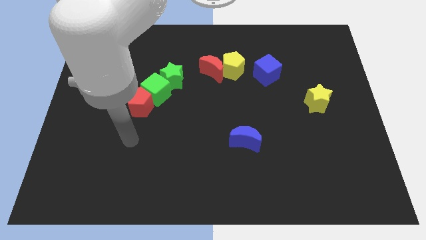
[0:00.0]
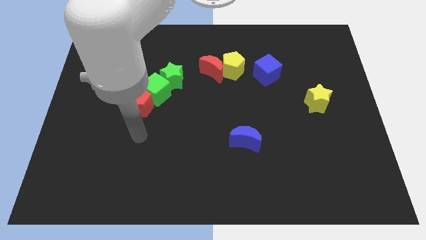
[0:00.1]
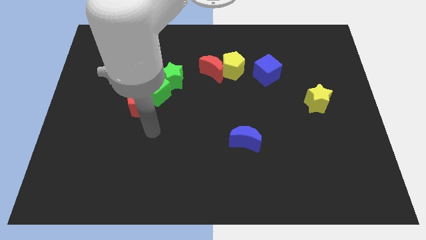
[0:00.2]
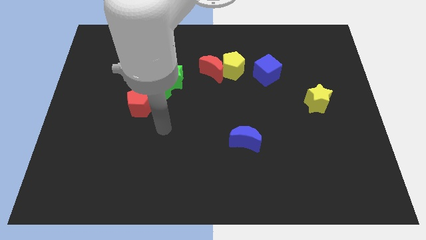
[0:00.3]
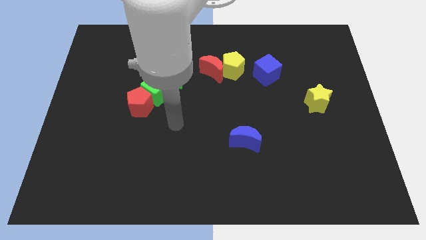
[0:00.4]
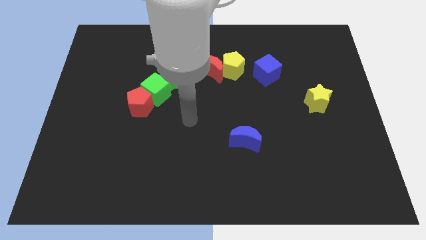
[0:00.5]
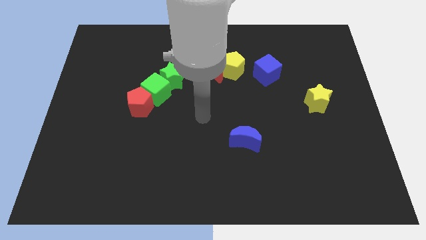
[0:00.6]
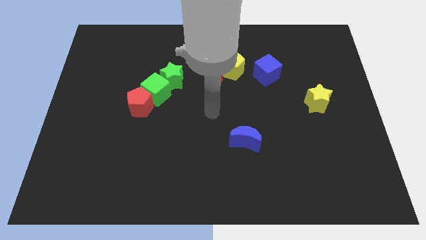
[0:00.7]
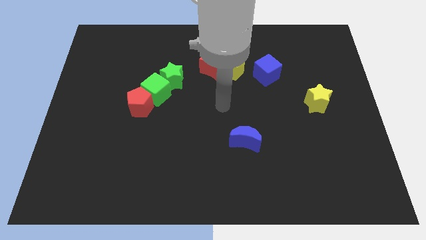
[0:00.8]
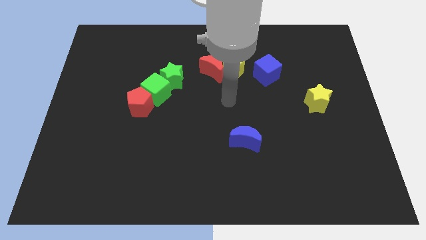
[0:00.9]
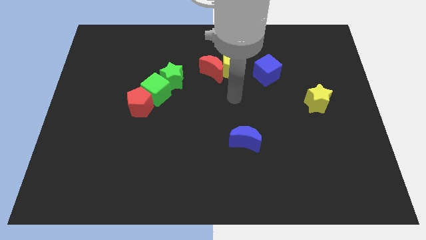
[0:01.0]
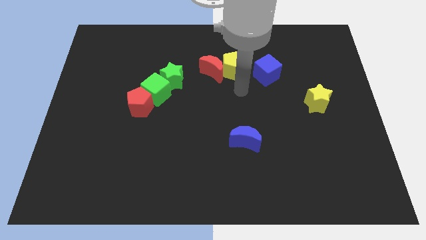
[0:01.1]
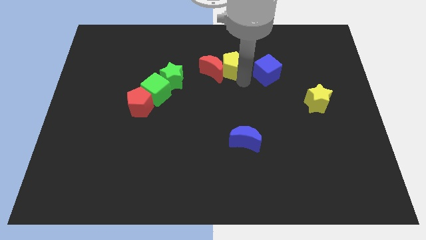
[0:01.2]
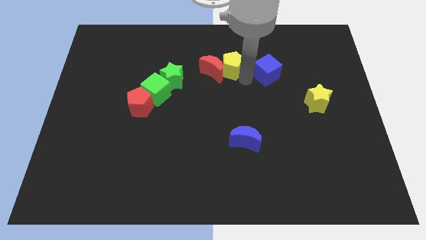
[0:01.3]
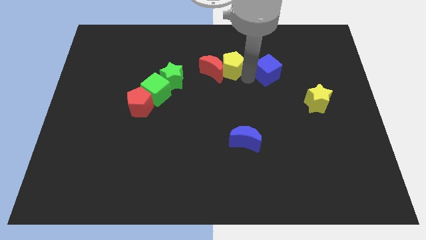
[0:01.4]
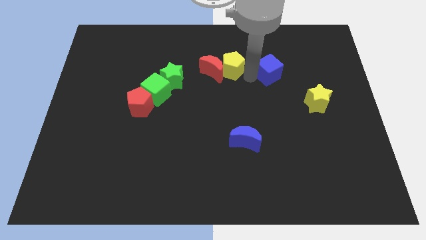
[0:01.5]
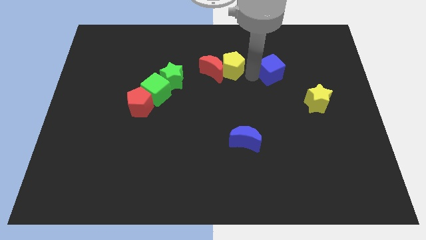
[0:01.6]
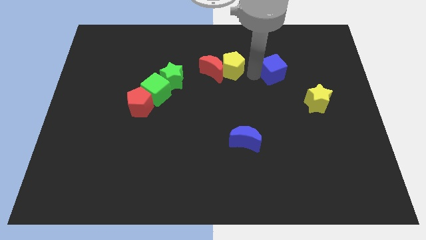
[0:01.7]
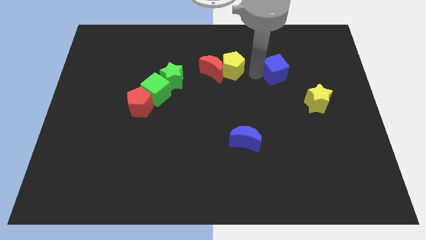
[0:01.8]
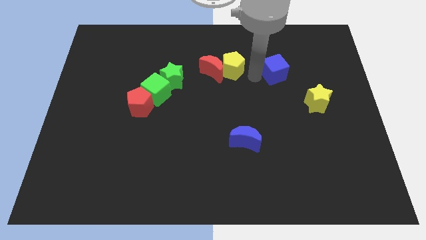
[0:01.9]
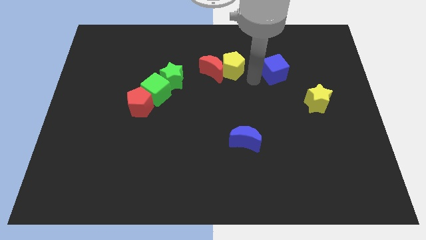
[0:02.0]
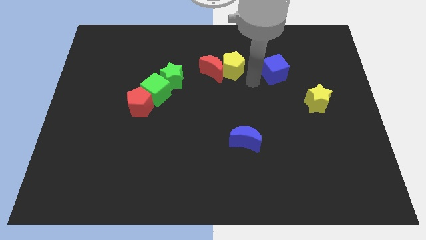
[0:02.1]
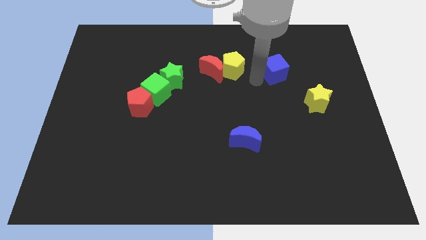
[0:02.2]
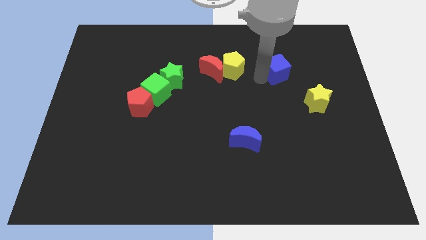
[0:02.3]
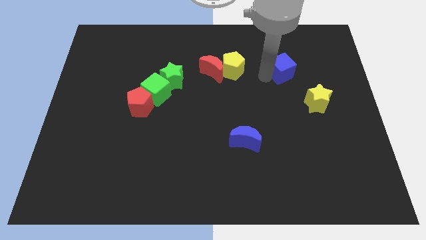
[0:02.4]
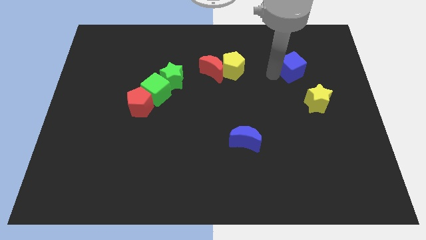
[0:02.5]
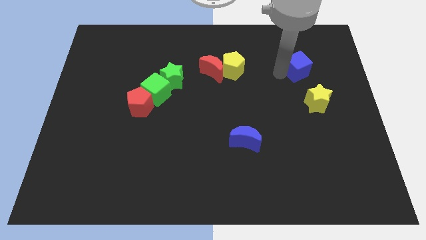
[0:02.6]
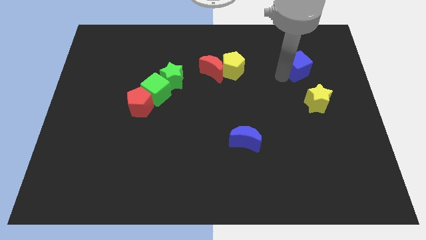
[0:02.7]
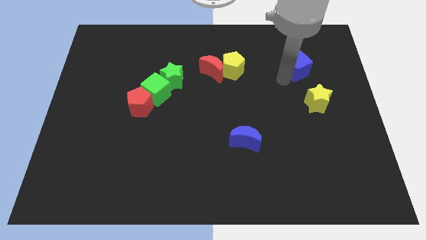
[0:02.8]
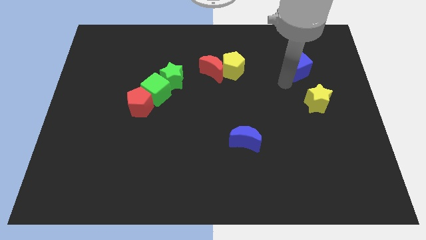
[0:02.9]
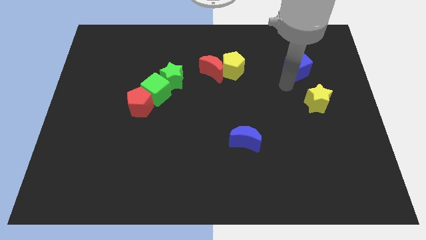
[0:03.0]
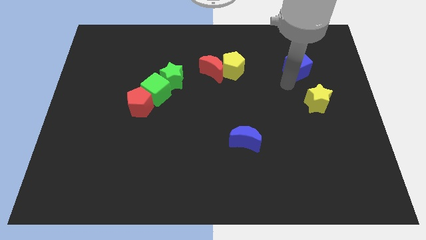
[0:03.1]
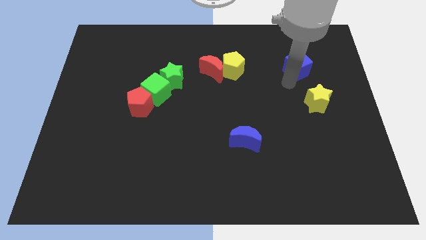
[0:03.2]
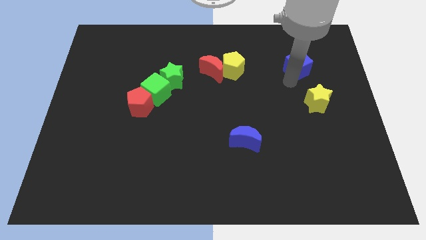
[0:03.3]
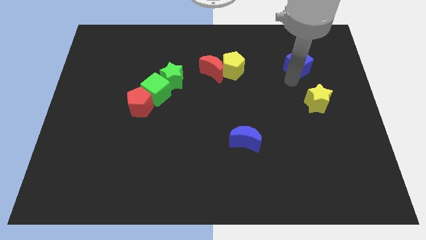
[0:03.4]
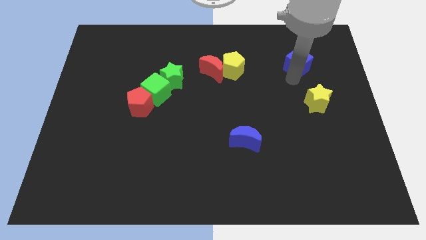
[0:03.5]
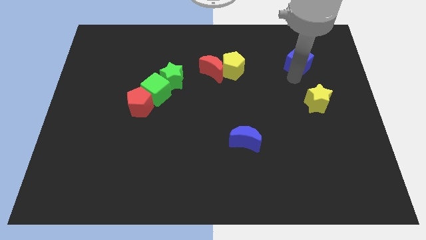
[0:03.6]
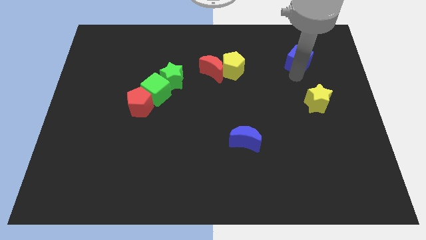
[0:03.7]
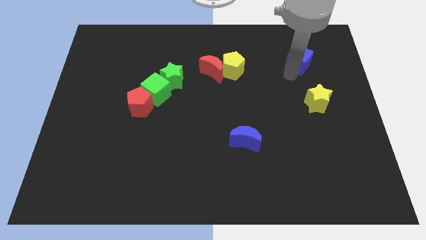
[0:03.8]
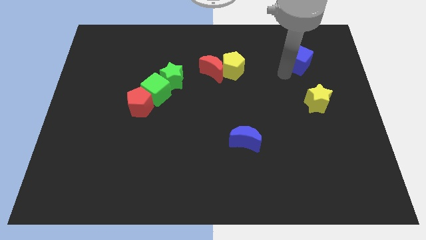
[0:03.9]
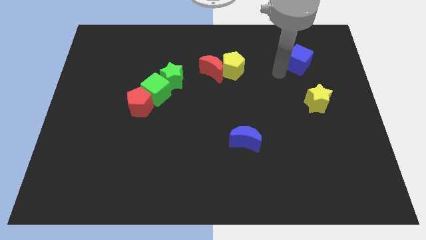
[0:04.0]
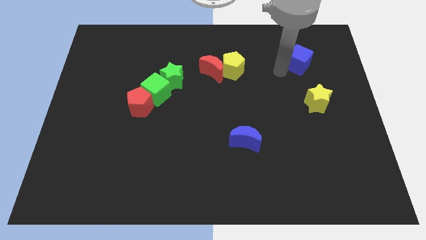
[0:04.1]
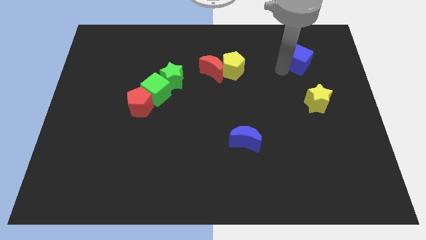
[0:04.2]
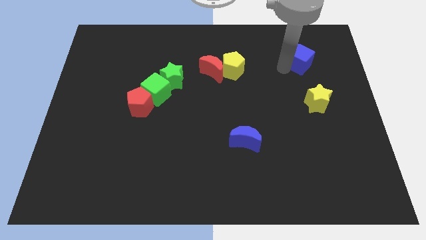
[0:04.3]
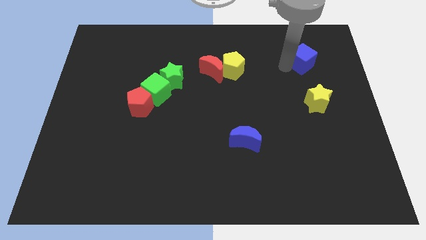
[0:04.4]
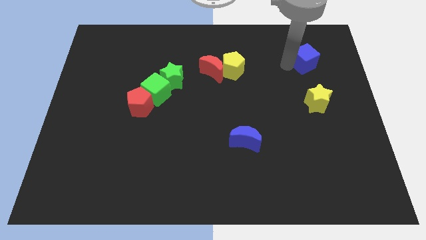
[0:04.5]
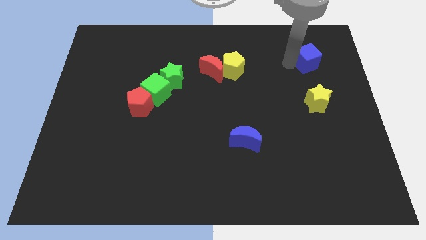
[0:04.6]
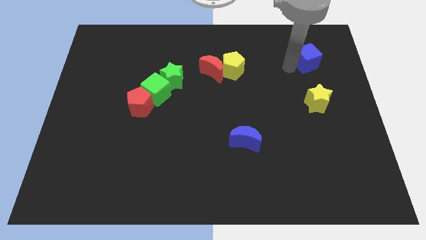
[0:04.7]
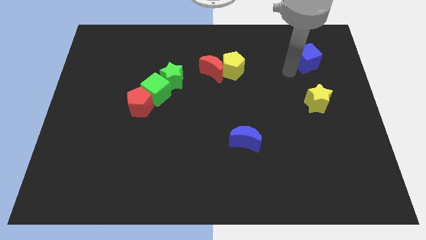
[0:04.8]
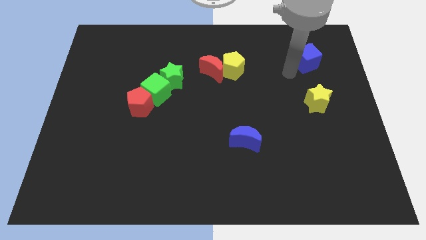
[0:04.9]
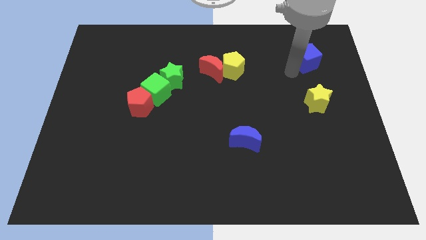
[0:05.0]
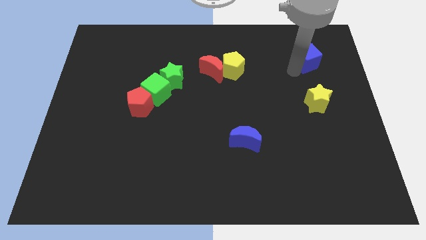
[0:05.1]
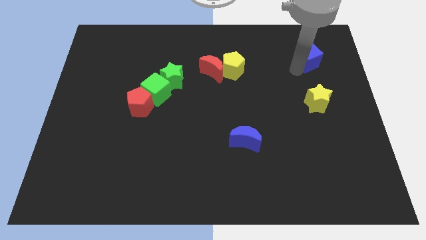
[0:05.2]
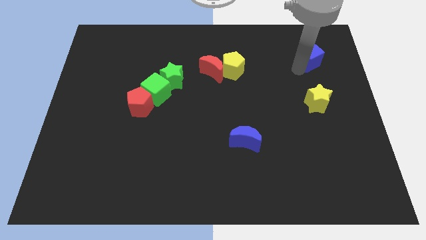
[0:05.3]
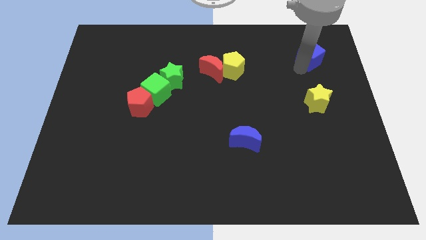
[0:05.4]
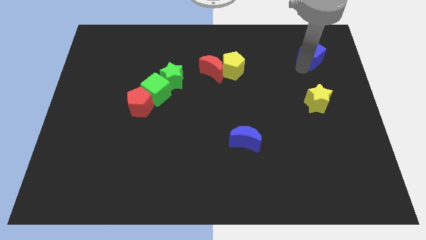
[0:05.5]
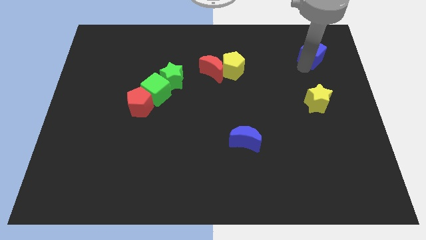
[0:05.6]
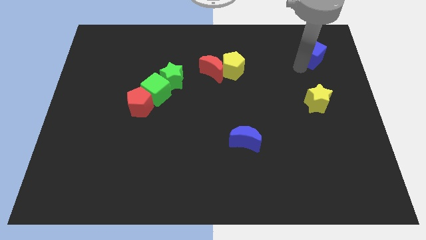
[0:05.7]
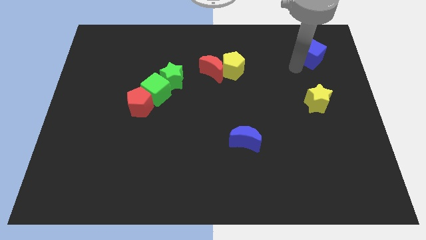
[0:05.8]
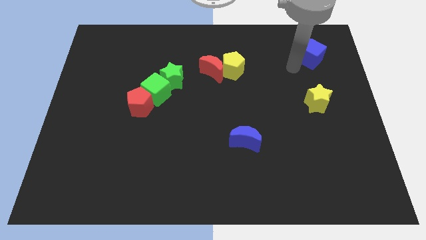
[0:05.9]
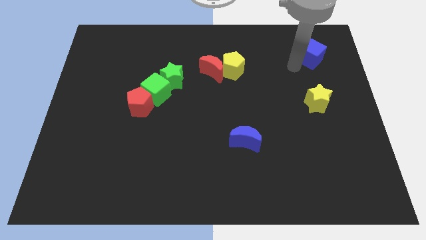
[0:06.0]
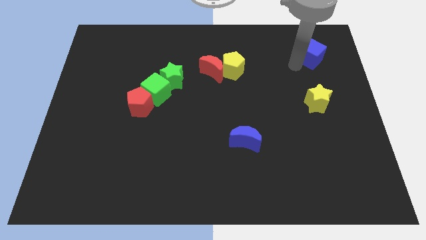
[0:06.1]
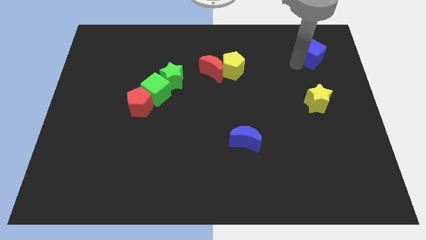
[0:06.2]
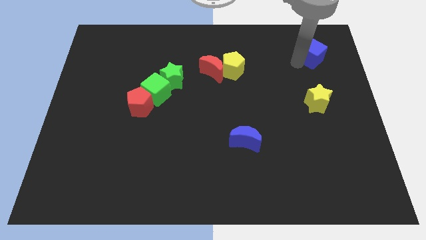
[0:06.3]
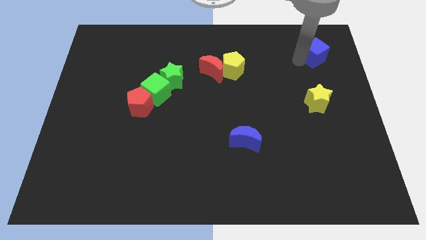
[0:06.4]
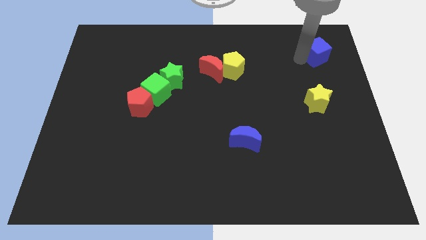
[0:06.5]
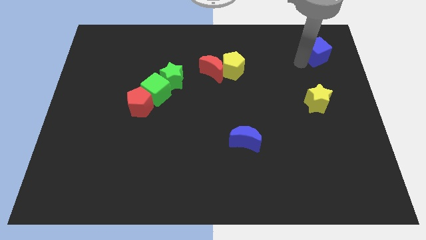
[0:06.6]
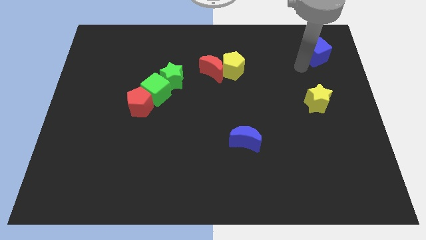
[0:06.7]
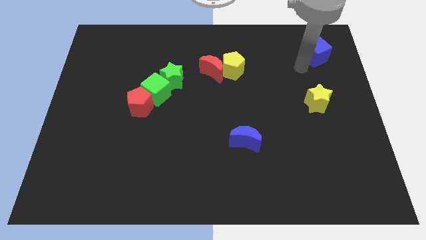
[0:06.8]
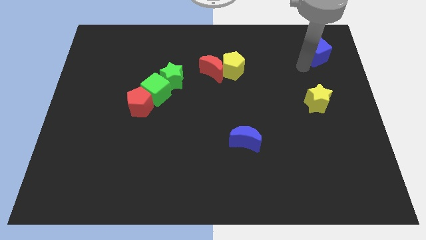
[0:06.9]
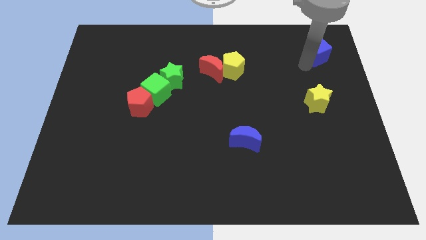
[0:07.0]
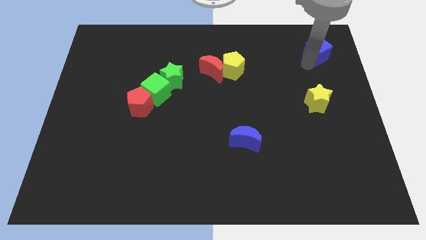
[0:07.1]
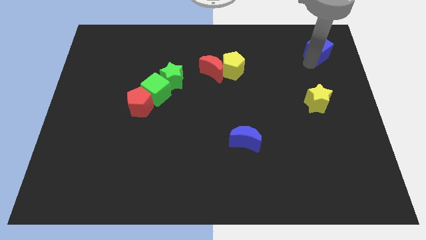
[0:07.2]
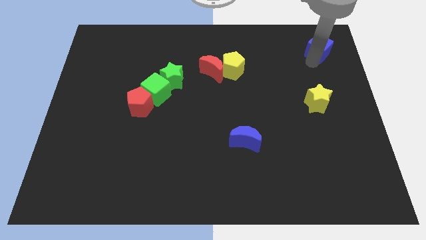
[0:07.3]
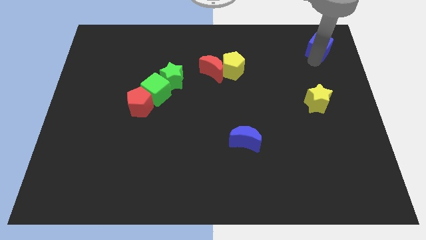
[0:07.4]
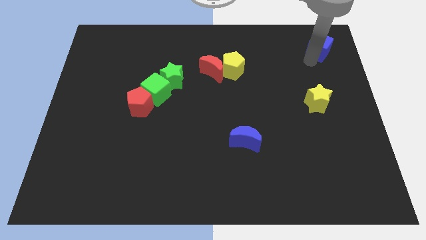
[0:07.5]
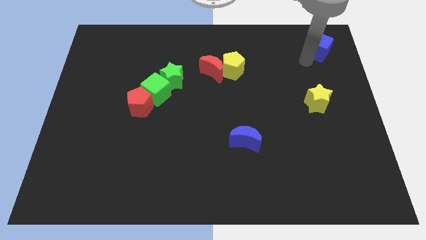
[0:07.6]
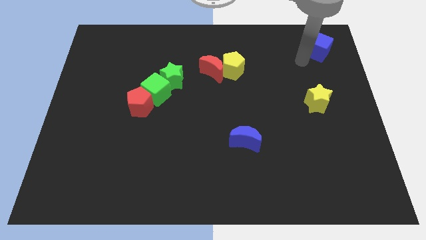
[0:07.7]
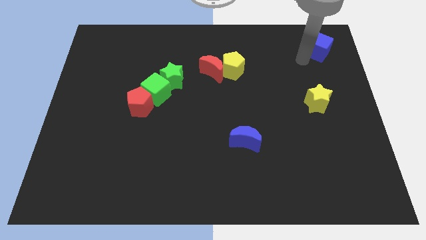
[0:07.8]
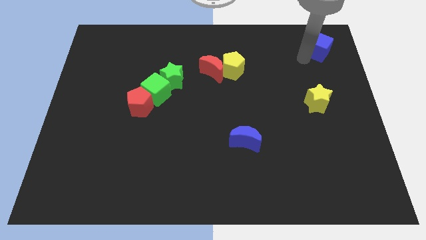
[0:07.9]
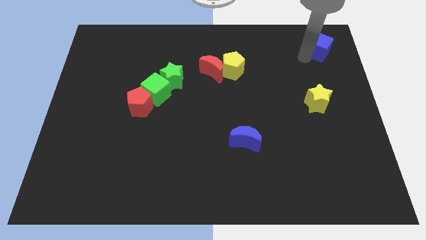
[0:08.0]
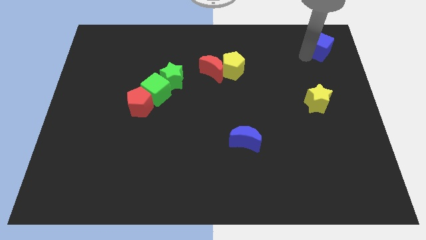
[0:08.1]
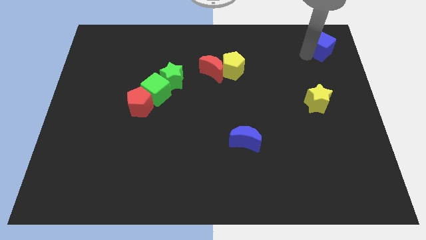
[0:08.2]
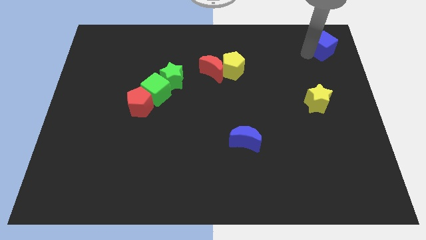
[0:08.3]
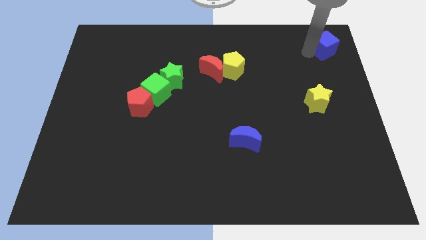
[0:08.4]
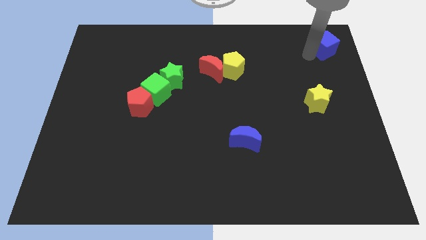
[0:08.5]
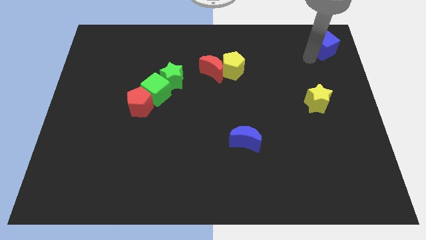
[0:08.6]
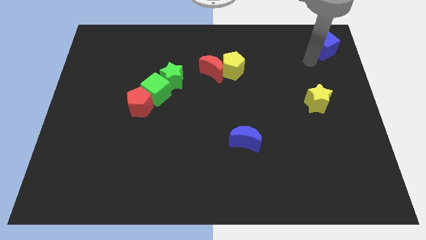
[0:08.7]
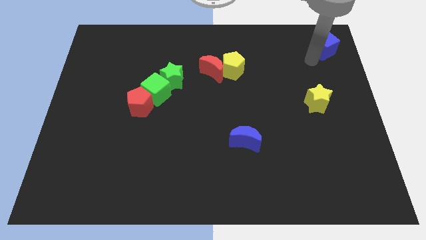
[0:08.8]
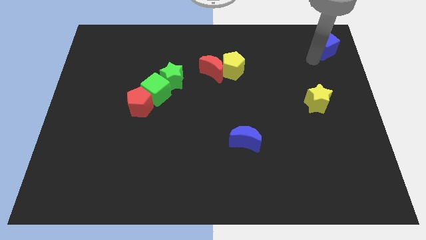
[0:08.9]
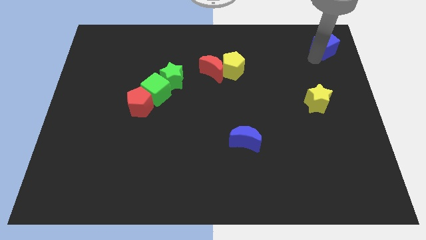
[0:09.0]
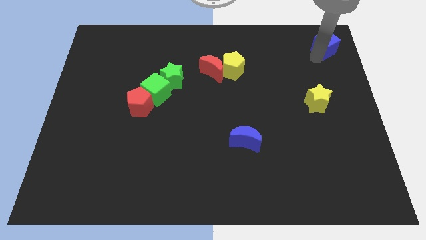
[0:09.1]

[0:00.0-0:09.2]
slide the blue cube to the upper right corner
